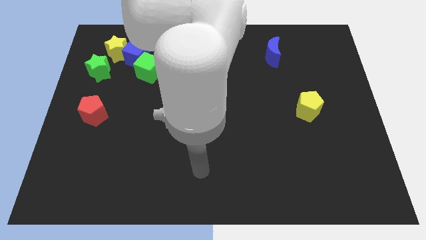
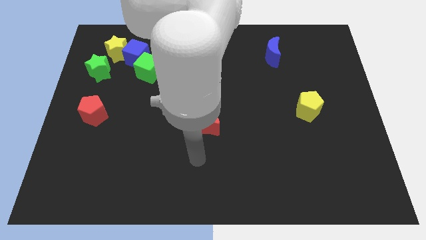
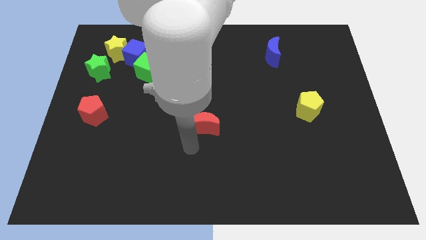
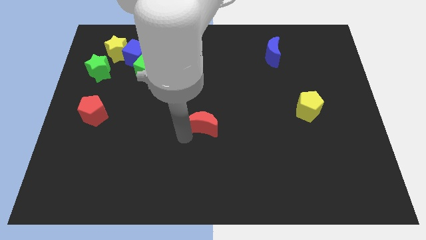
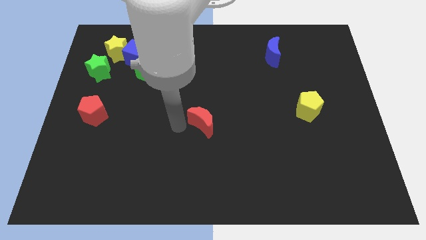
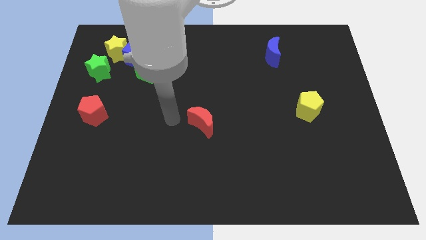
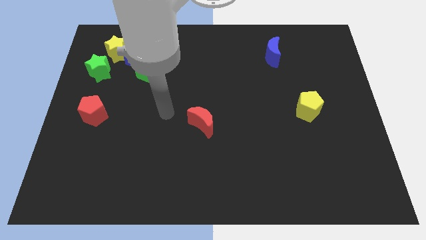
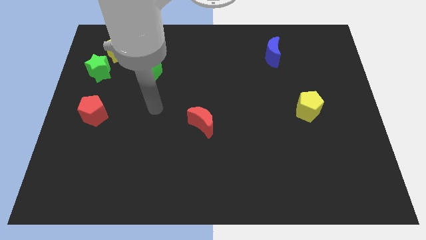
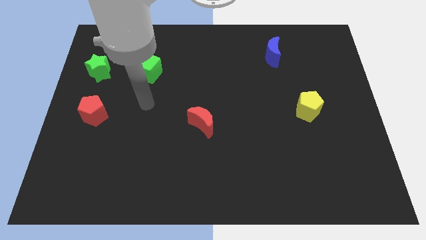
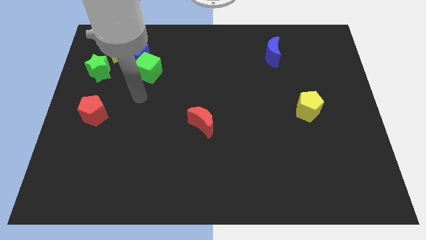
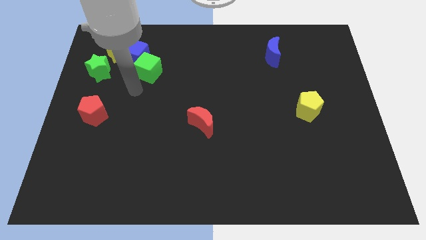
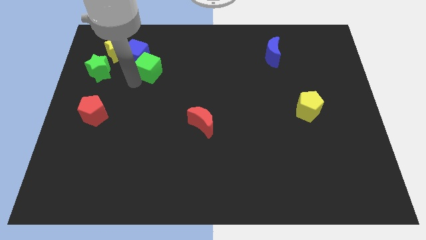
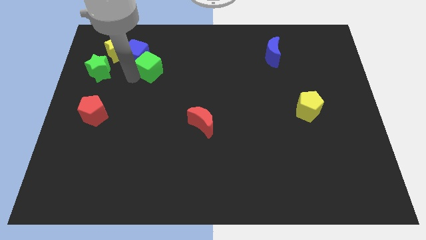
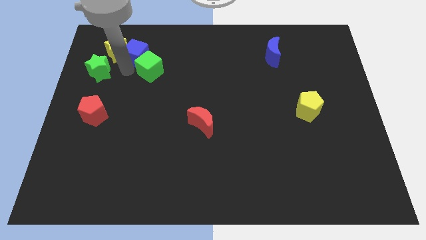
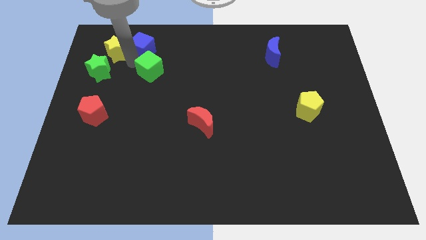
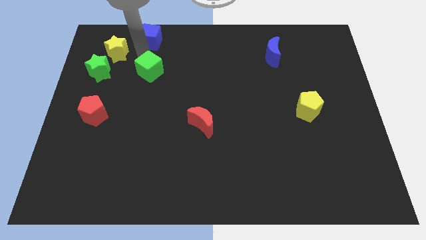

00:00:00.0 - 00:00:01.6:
separate the green cube from the blue cube

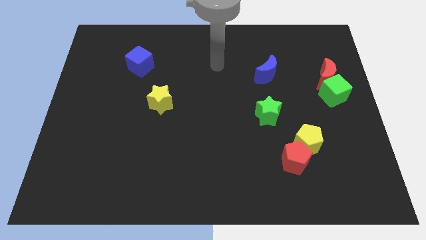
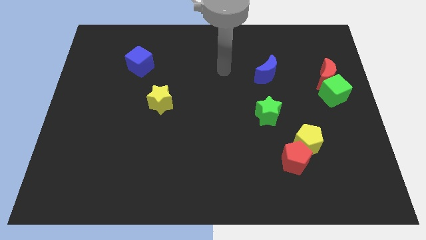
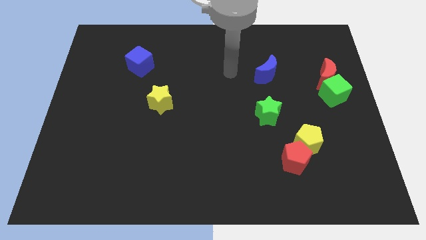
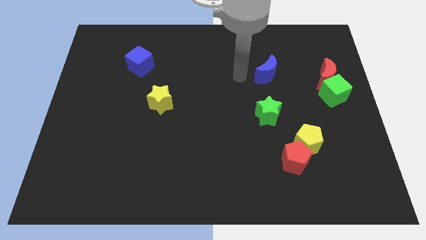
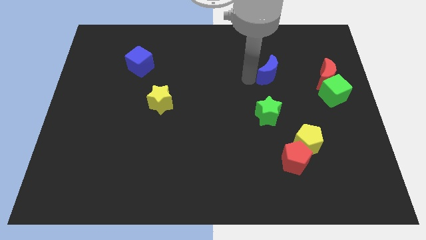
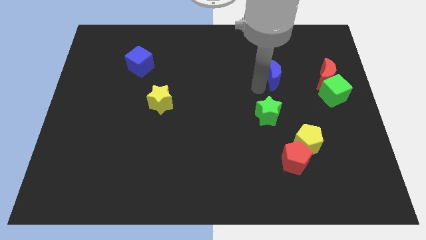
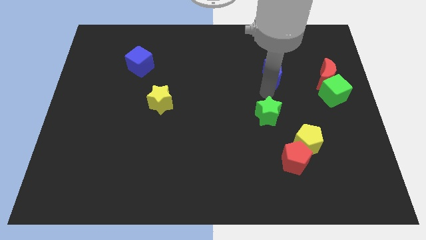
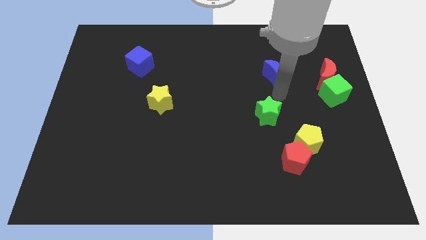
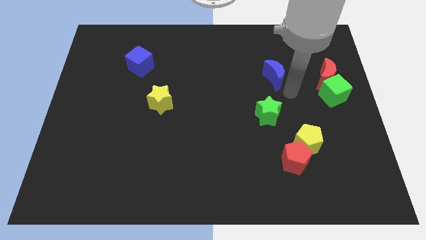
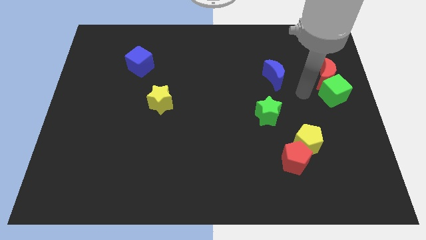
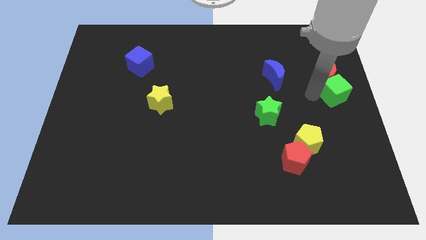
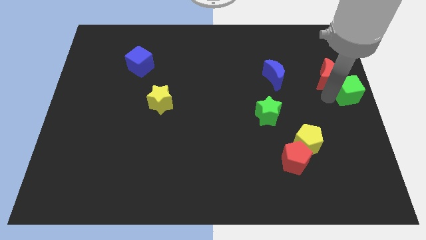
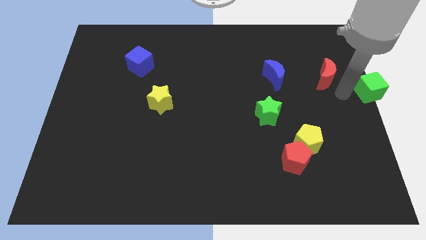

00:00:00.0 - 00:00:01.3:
separate the red moon from the green cube

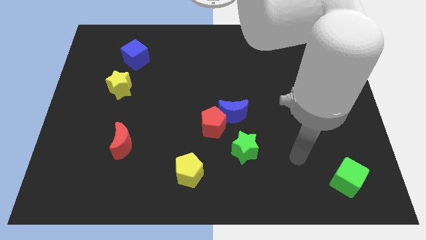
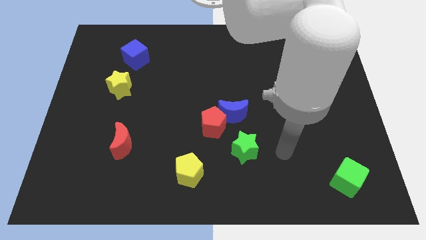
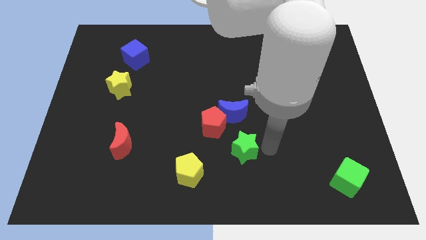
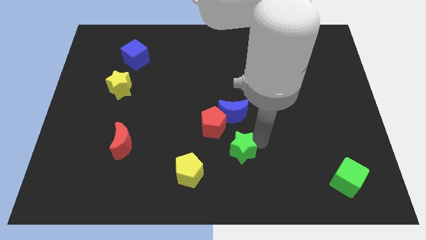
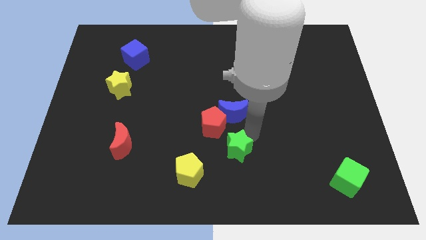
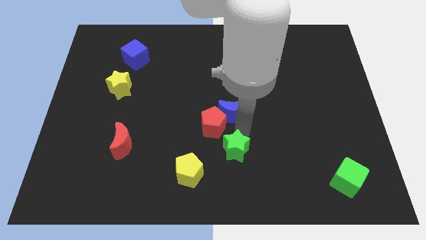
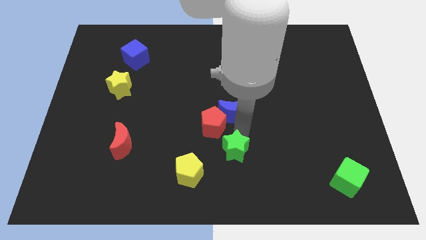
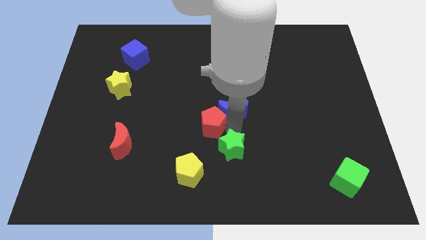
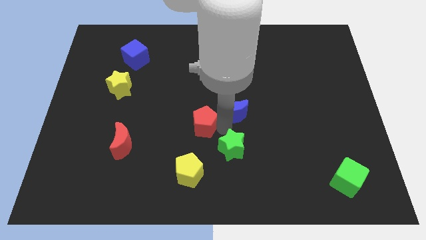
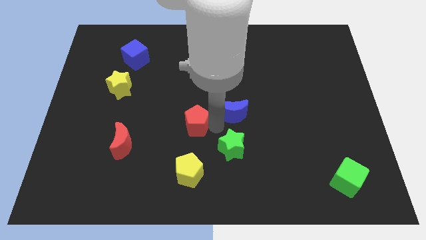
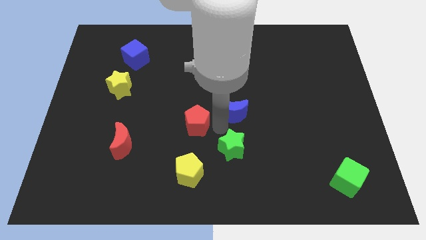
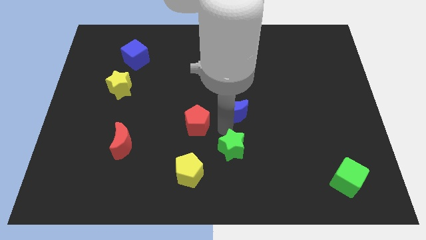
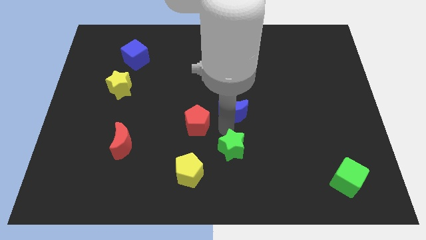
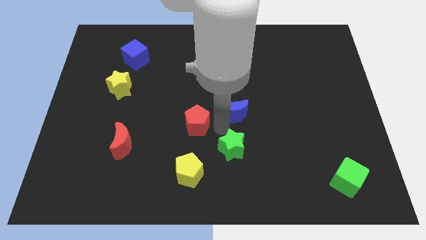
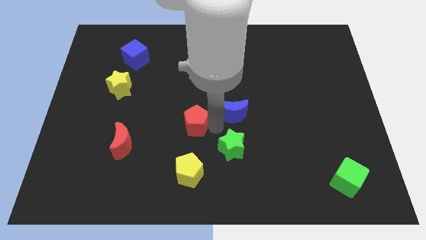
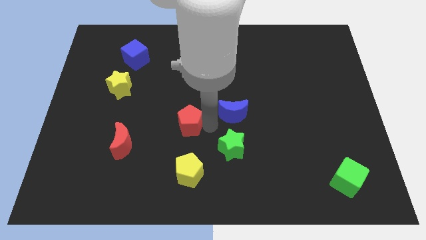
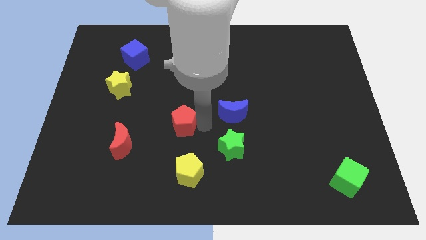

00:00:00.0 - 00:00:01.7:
pull the red pentagon apart from the blue moon and green star

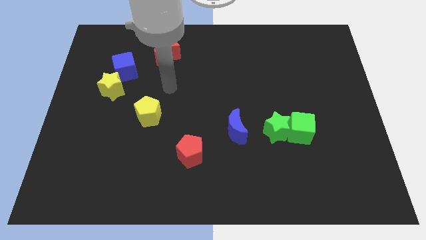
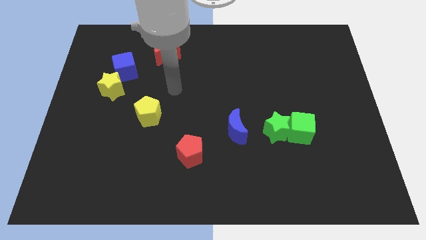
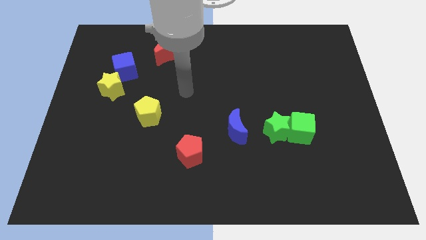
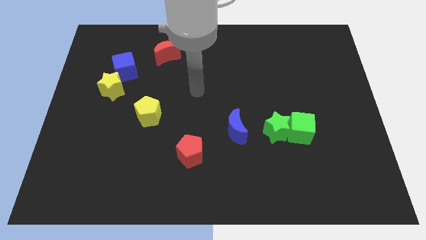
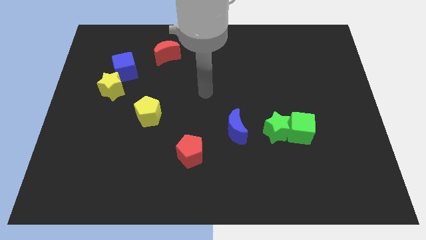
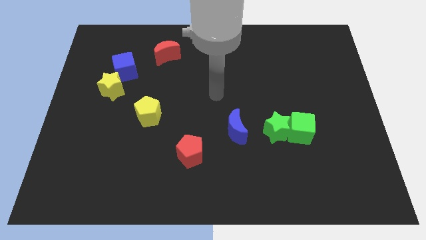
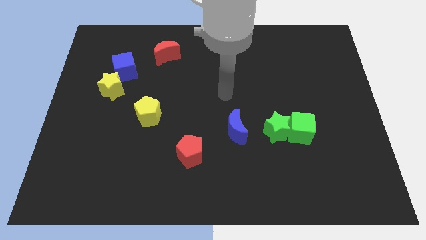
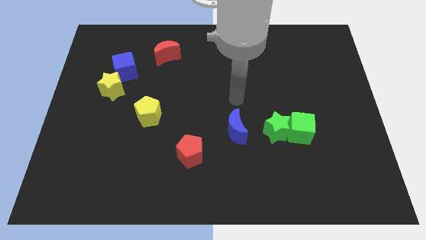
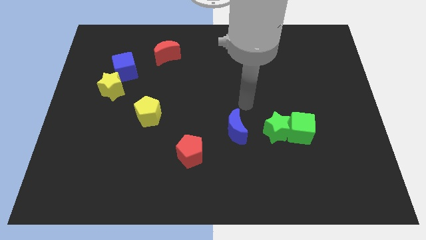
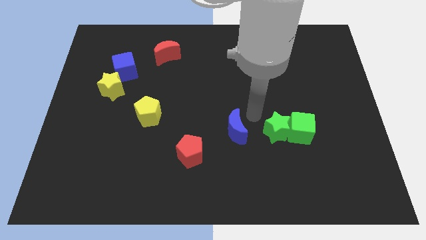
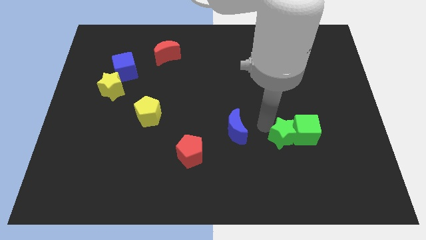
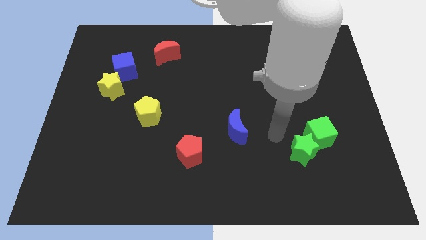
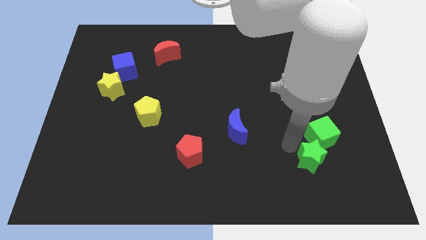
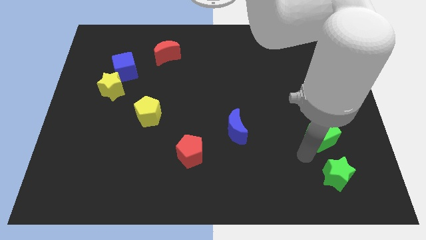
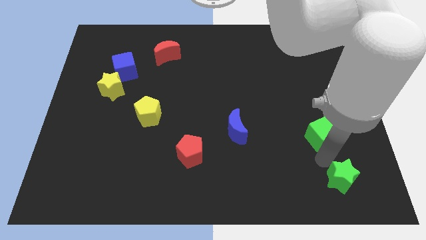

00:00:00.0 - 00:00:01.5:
move the green cube away from the green star

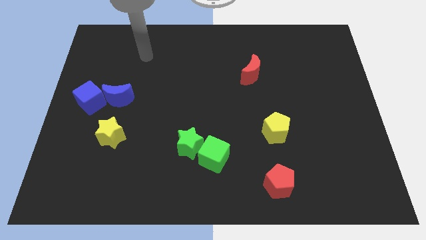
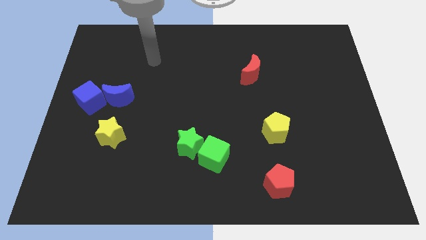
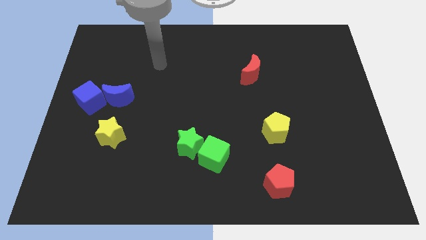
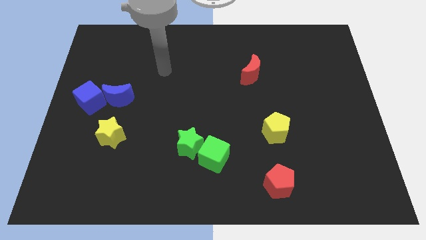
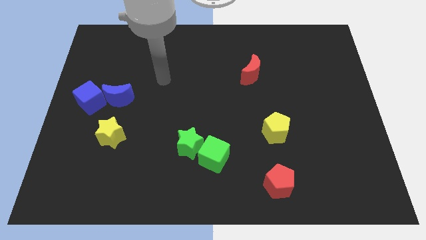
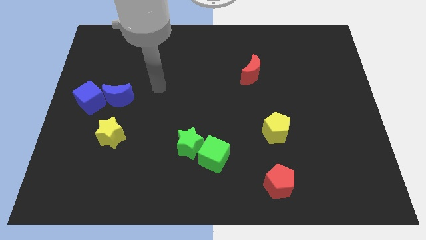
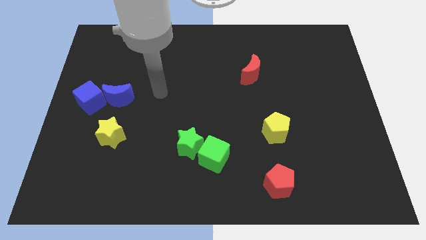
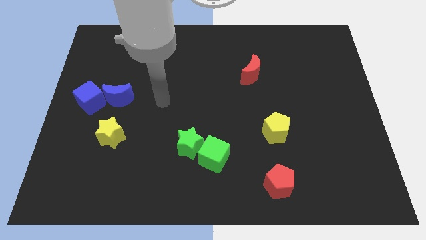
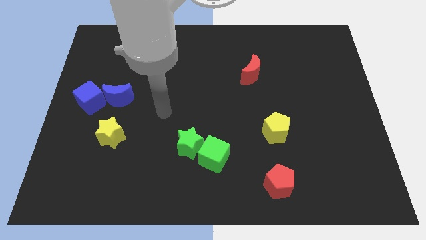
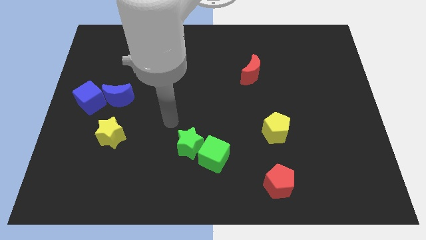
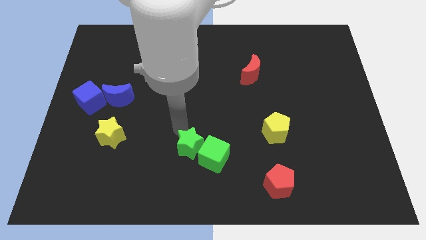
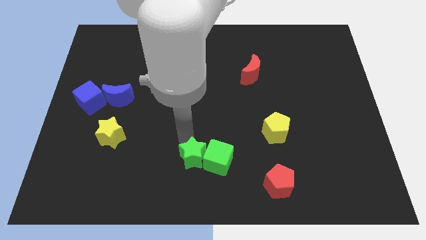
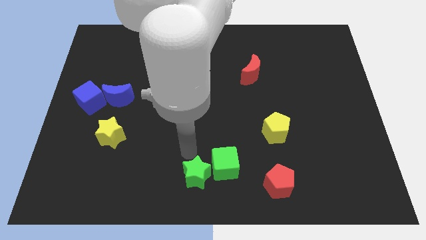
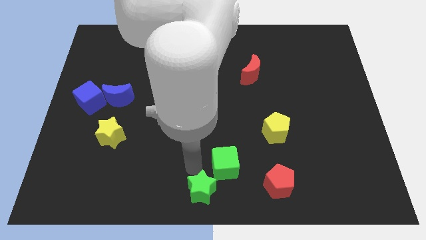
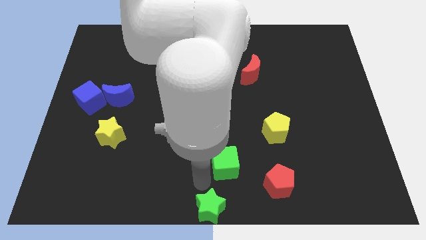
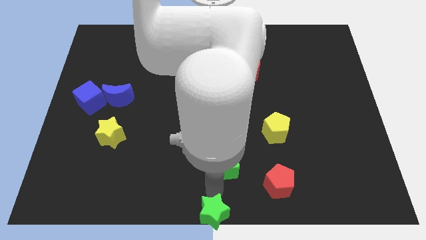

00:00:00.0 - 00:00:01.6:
pull the green cube apart from the green star

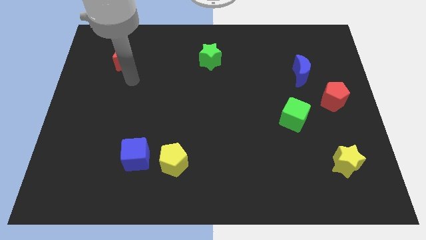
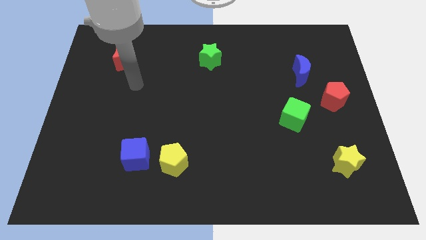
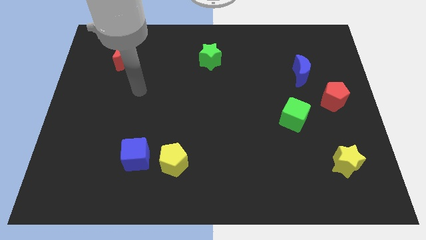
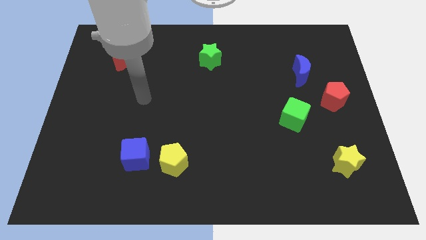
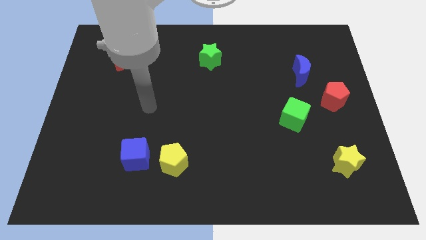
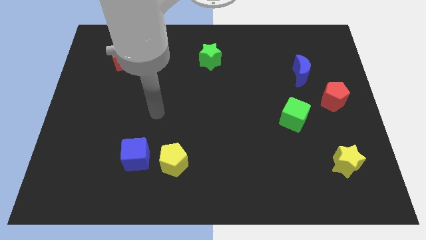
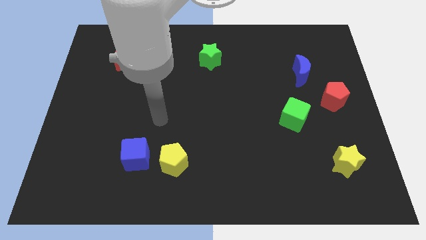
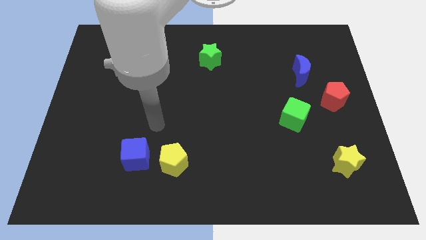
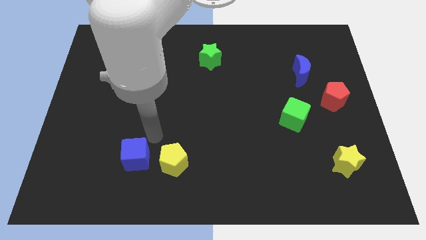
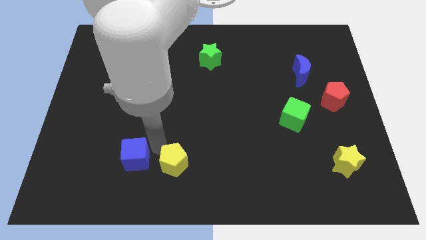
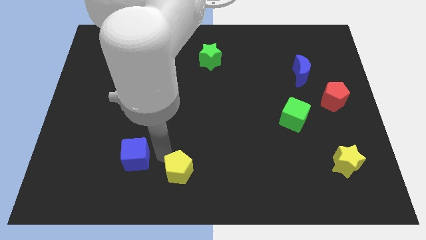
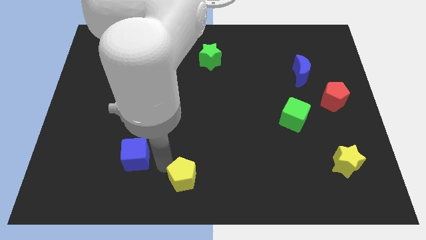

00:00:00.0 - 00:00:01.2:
pull the blue cube apart from the yellow pentagon

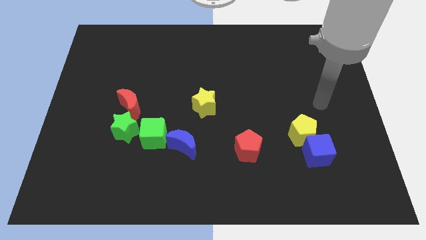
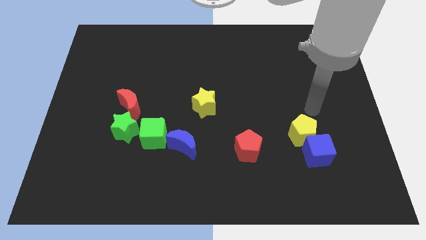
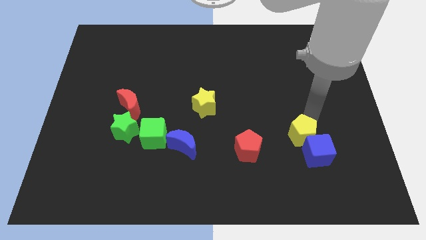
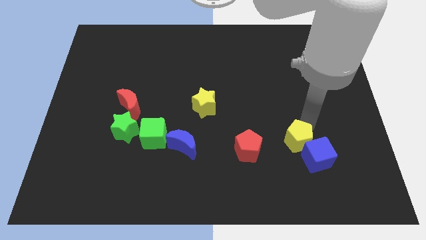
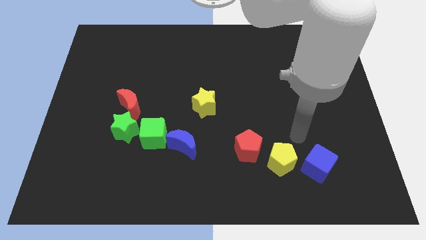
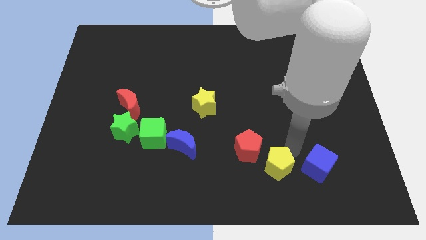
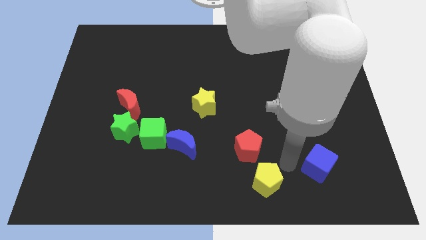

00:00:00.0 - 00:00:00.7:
move the blue cube away from the yellow pentagon
